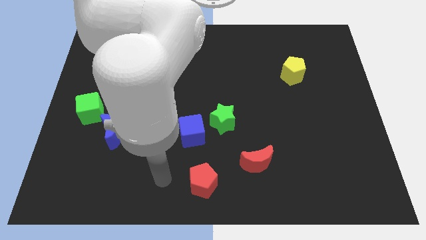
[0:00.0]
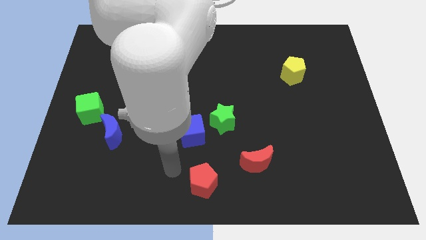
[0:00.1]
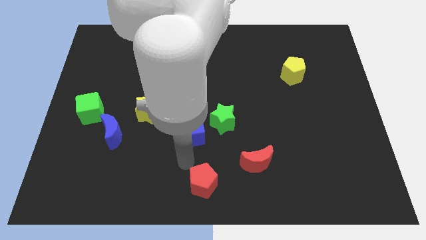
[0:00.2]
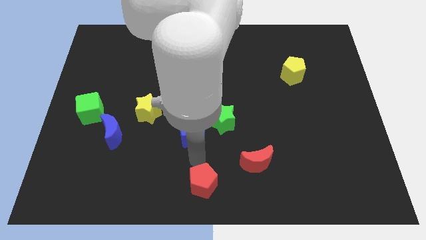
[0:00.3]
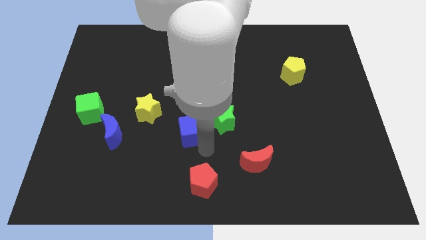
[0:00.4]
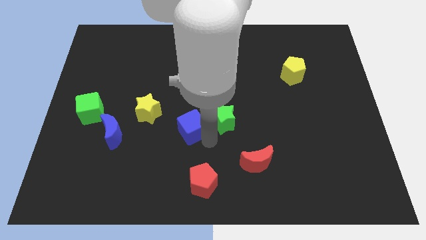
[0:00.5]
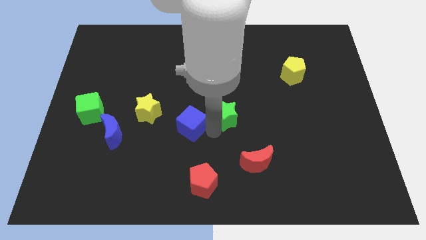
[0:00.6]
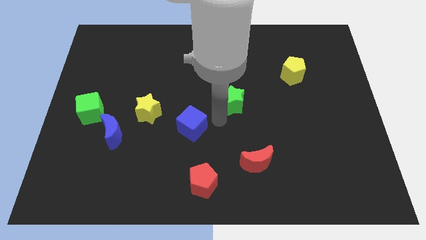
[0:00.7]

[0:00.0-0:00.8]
pull the blue cube apart from the green star

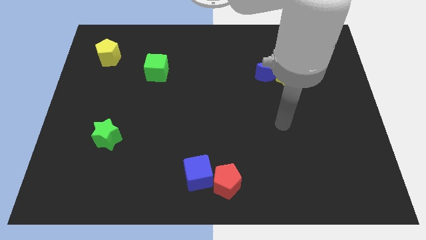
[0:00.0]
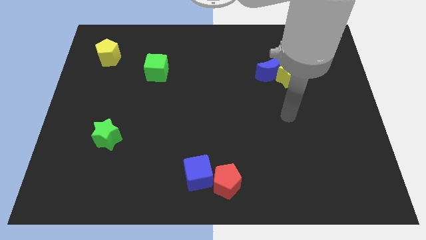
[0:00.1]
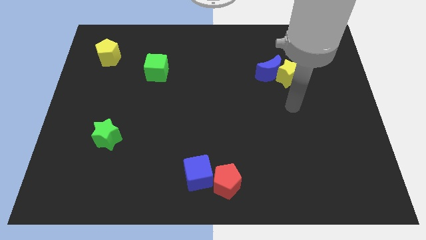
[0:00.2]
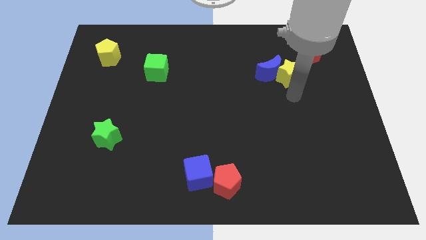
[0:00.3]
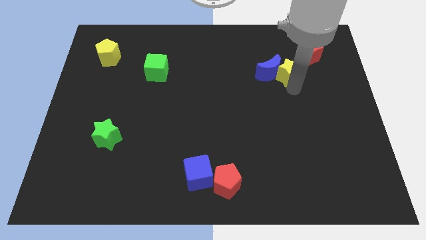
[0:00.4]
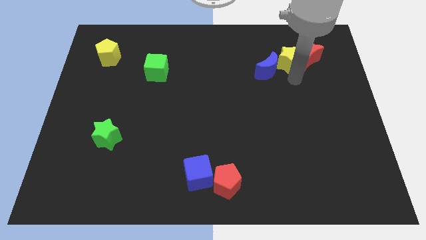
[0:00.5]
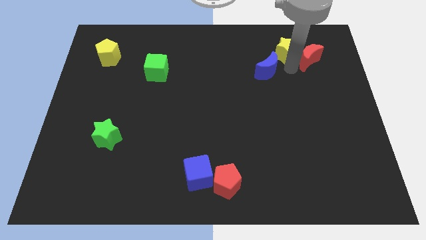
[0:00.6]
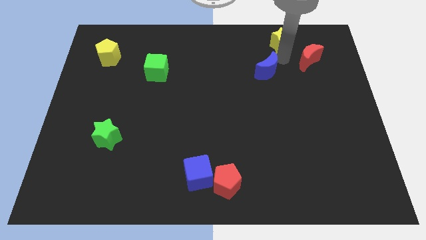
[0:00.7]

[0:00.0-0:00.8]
pull the blue moon apart from the yellow star

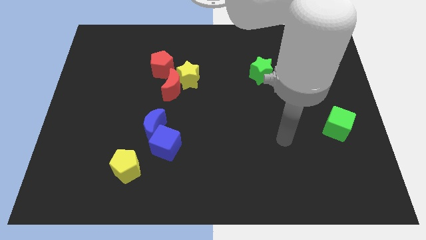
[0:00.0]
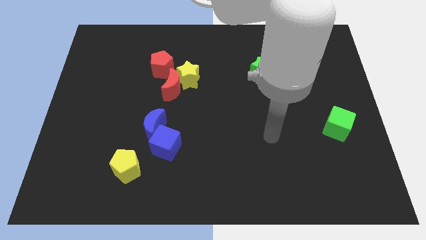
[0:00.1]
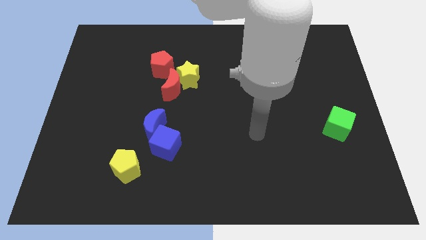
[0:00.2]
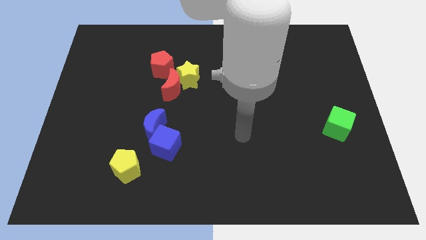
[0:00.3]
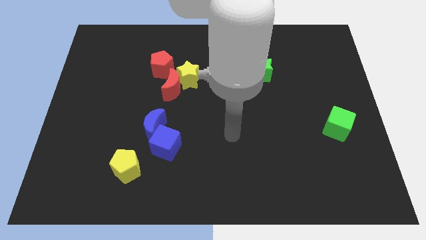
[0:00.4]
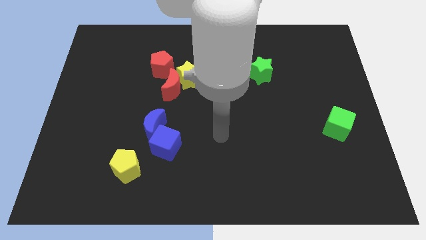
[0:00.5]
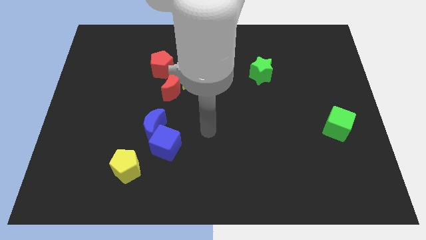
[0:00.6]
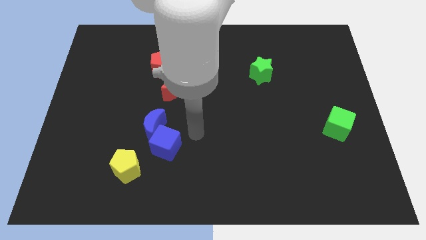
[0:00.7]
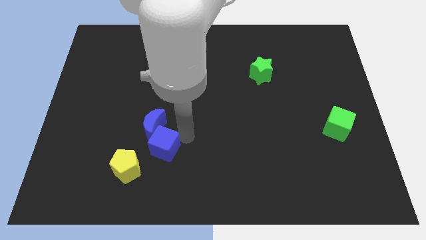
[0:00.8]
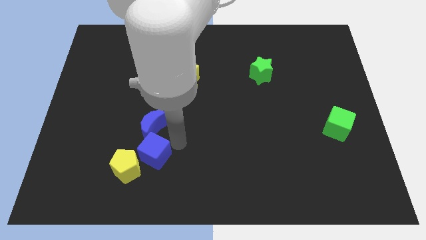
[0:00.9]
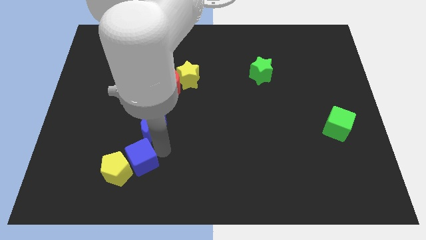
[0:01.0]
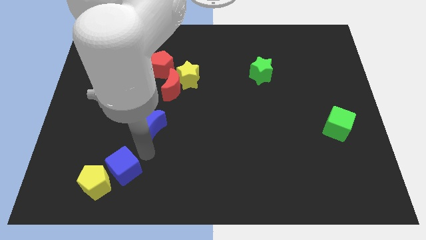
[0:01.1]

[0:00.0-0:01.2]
separate the blue moon from the blue cube

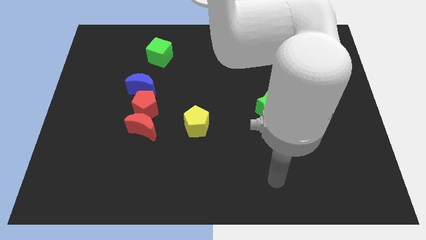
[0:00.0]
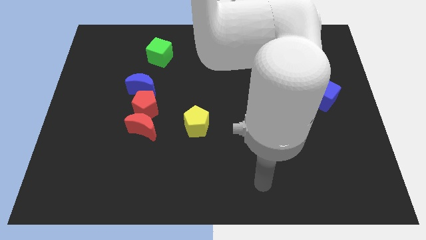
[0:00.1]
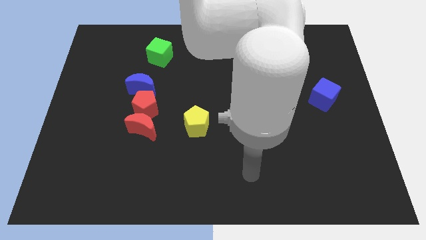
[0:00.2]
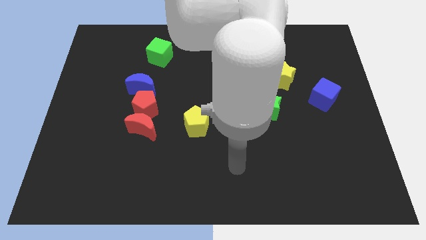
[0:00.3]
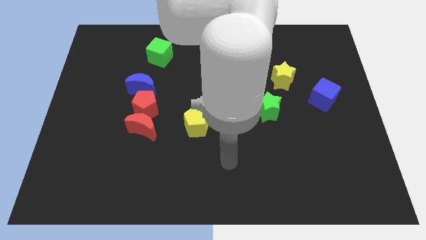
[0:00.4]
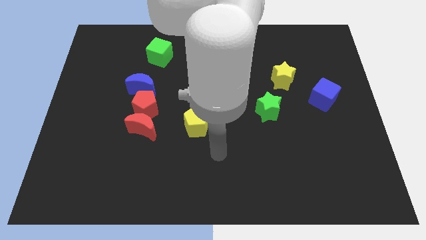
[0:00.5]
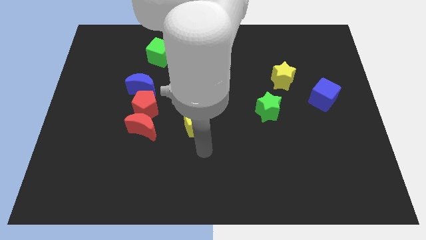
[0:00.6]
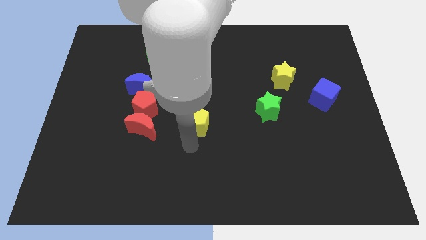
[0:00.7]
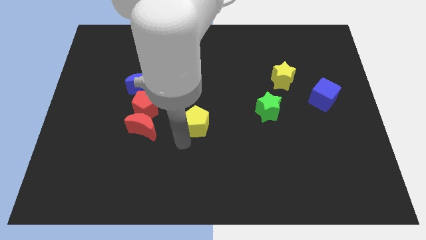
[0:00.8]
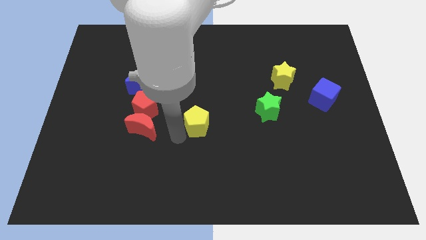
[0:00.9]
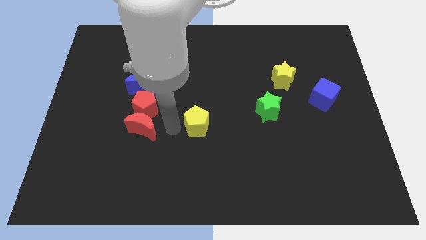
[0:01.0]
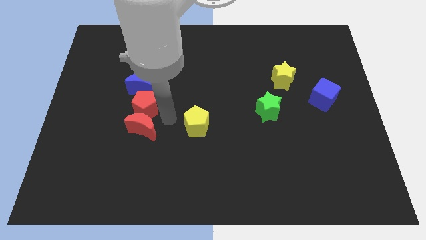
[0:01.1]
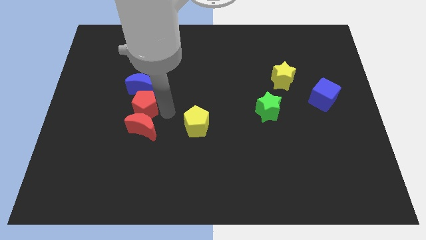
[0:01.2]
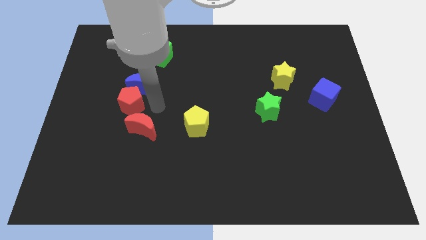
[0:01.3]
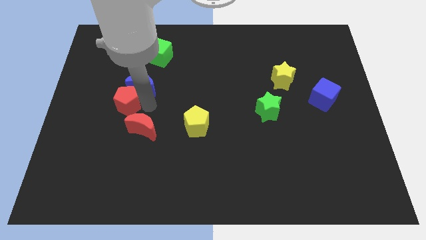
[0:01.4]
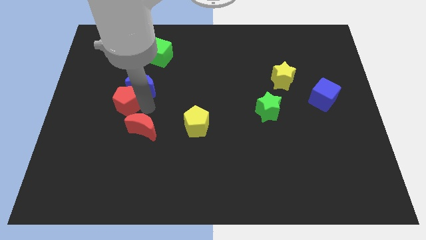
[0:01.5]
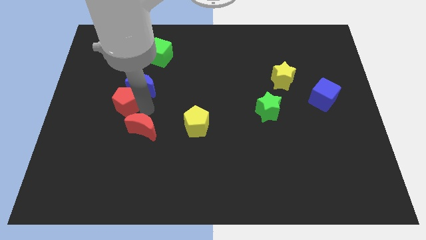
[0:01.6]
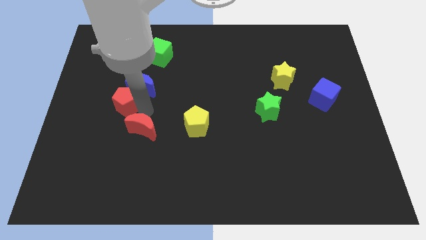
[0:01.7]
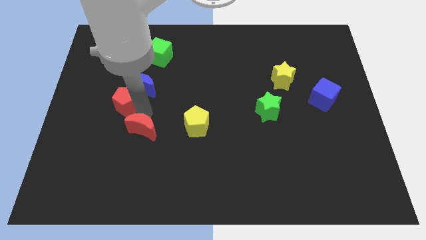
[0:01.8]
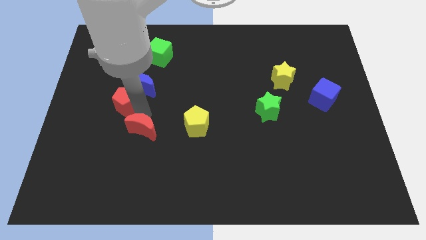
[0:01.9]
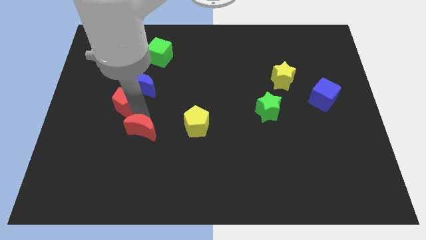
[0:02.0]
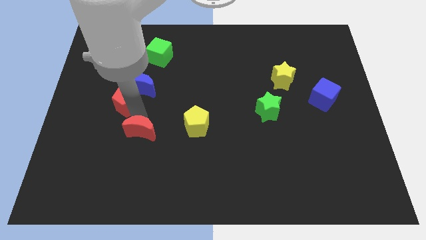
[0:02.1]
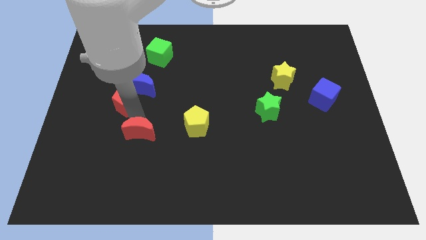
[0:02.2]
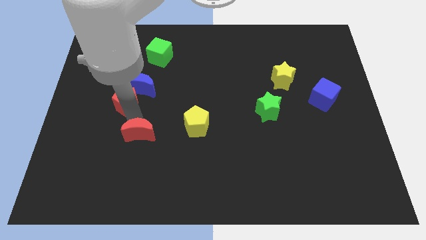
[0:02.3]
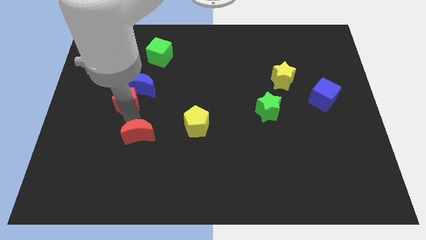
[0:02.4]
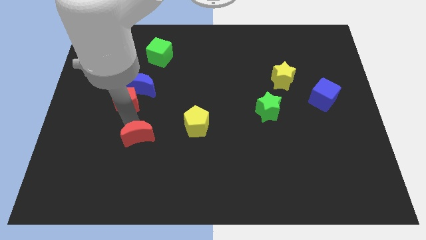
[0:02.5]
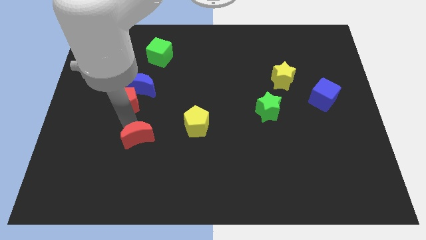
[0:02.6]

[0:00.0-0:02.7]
pull the red moon apart from the red pentagon

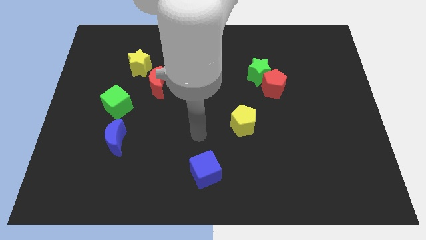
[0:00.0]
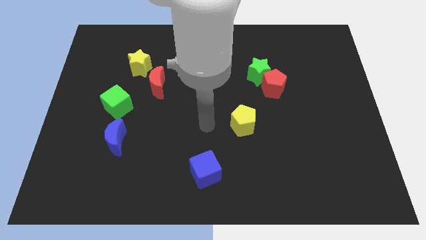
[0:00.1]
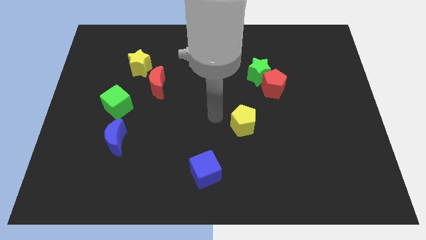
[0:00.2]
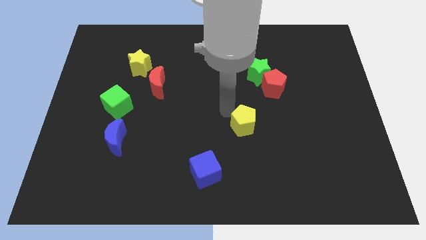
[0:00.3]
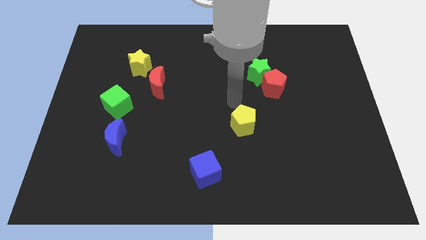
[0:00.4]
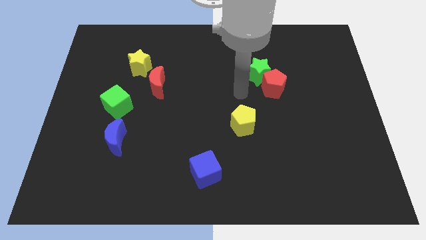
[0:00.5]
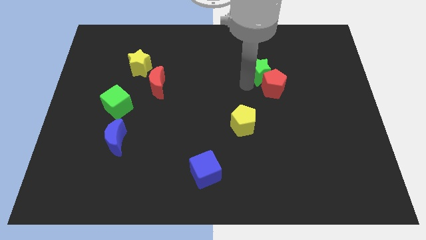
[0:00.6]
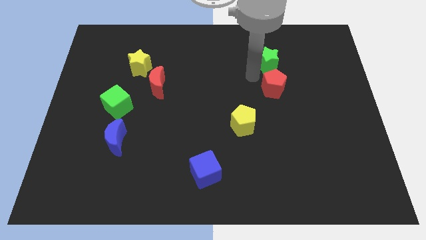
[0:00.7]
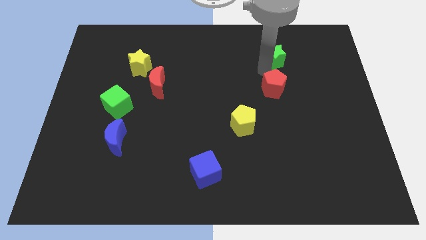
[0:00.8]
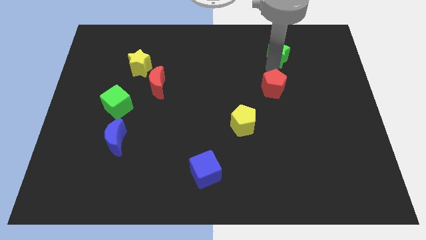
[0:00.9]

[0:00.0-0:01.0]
separate the red pentagon from the green star

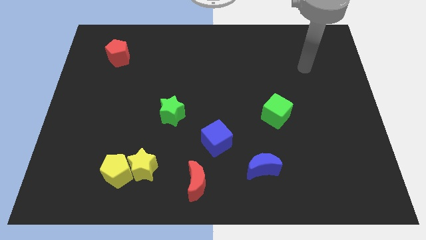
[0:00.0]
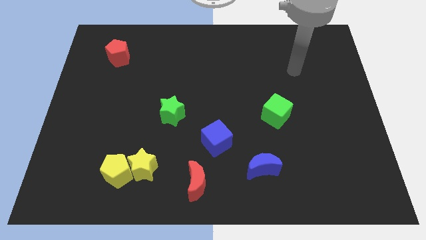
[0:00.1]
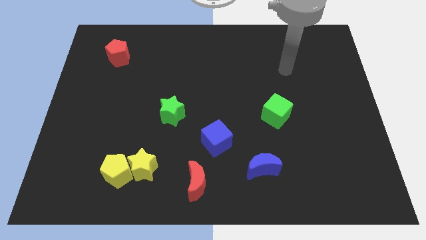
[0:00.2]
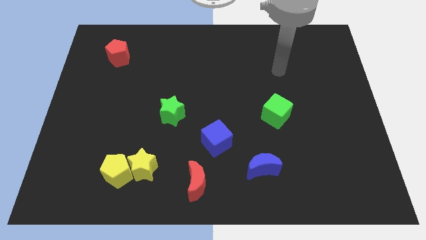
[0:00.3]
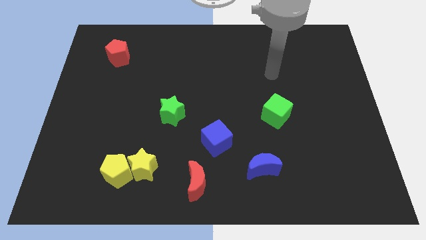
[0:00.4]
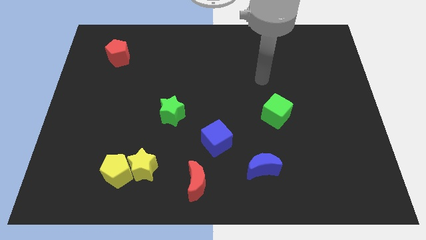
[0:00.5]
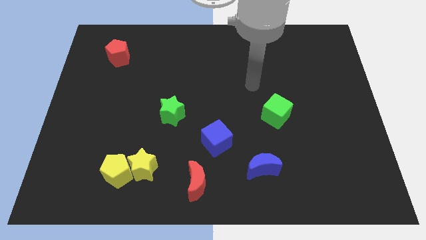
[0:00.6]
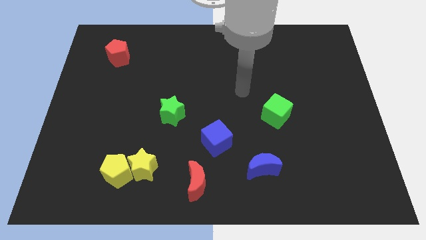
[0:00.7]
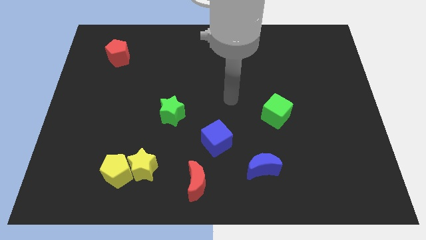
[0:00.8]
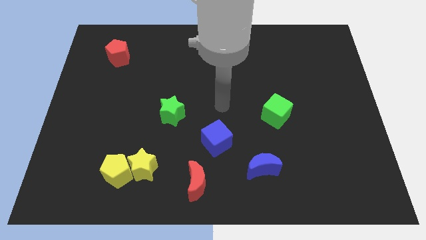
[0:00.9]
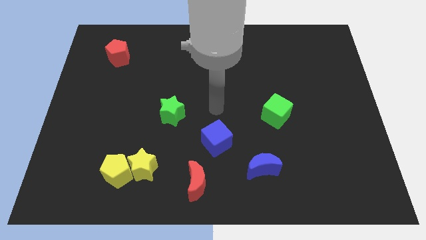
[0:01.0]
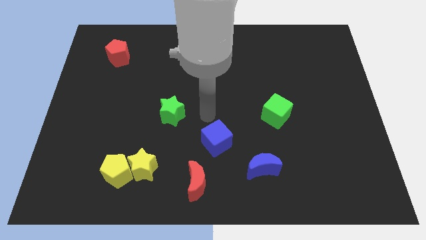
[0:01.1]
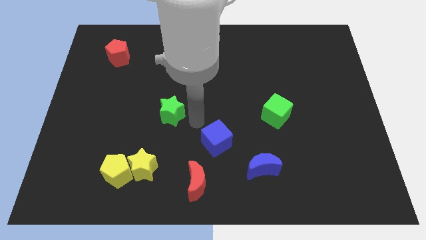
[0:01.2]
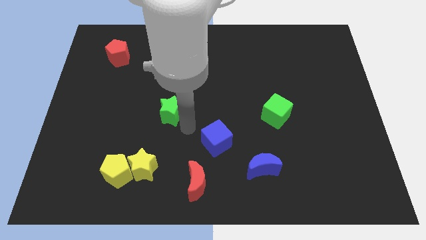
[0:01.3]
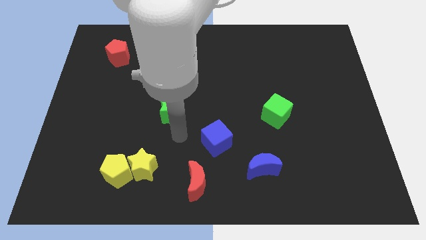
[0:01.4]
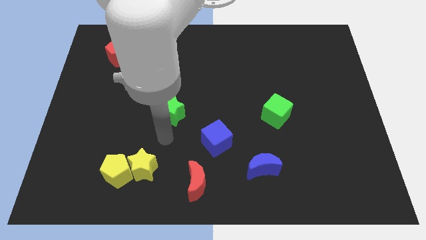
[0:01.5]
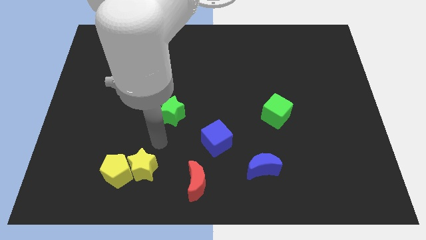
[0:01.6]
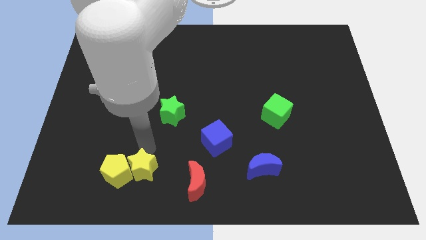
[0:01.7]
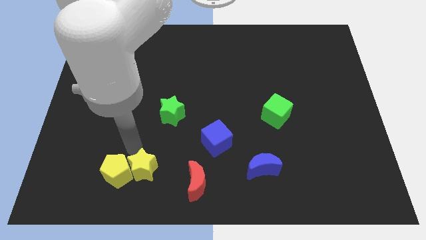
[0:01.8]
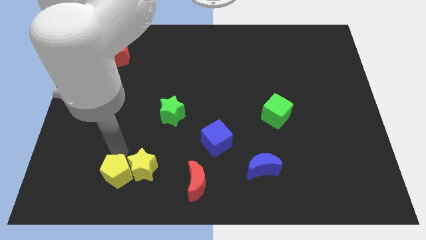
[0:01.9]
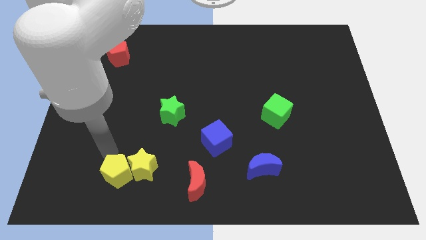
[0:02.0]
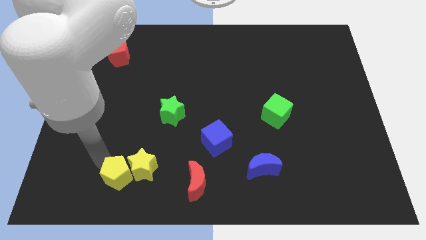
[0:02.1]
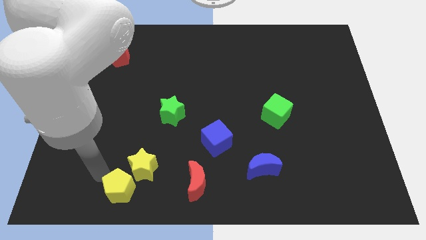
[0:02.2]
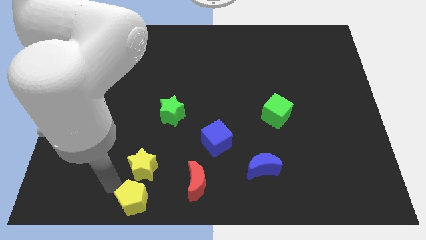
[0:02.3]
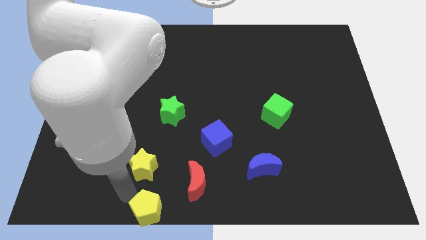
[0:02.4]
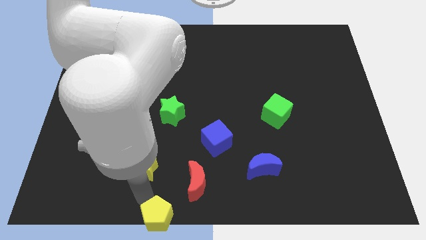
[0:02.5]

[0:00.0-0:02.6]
pull the yellow star apart from the yellow pentagon

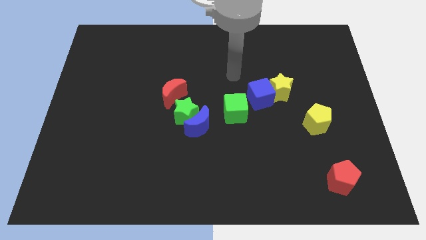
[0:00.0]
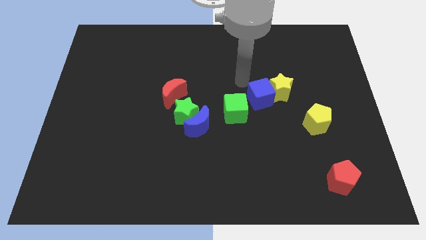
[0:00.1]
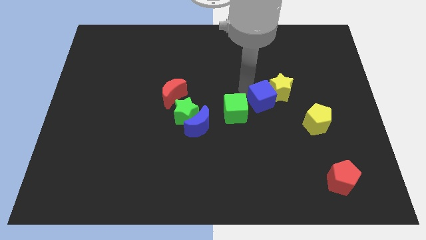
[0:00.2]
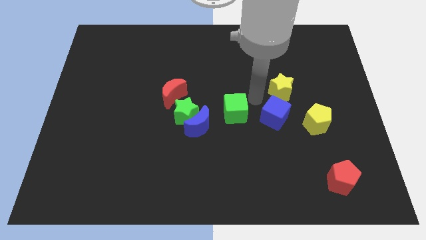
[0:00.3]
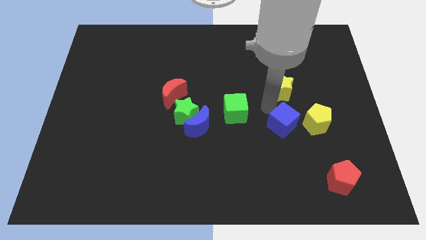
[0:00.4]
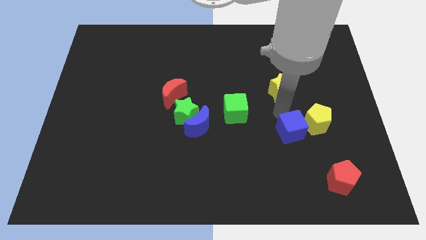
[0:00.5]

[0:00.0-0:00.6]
move the yellow star away from the blue cube
